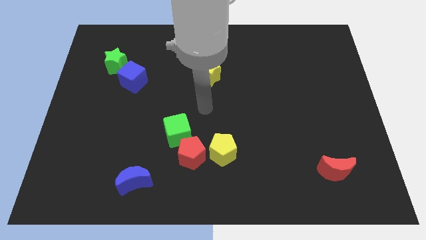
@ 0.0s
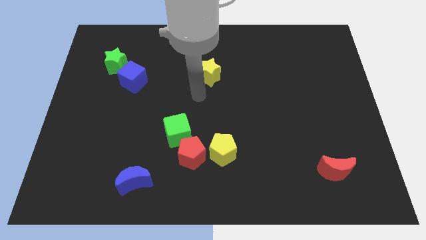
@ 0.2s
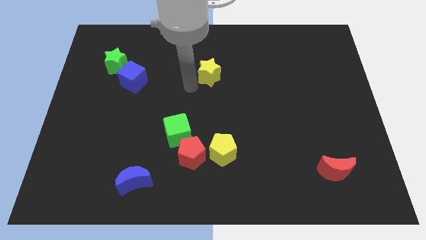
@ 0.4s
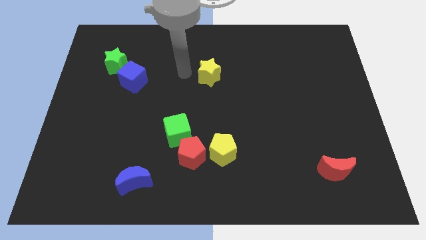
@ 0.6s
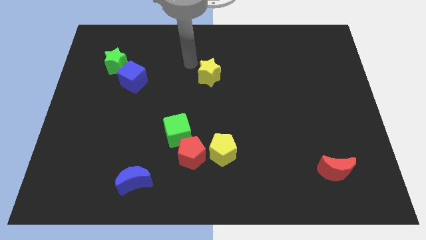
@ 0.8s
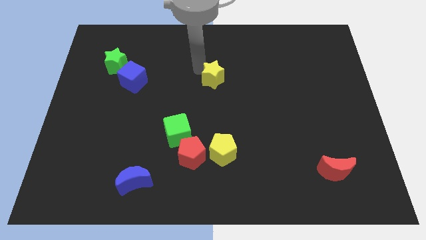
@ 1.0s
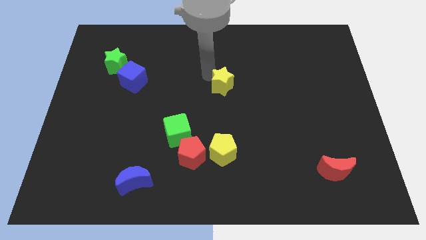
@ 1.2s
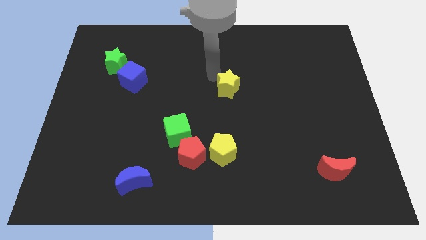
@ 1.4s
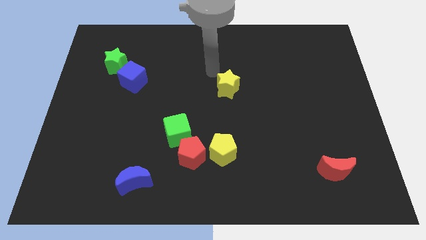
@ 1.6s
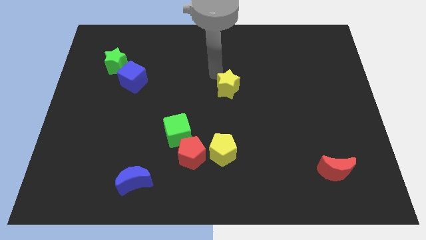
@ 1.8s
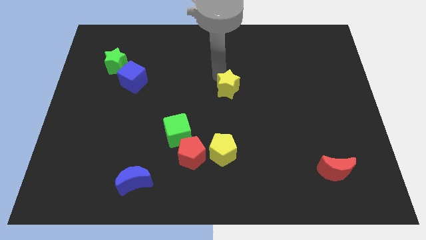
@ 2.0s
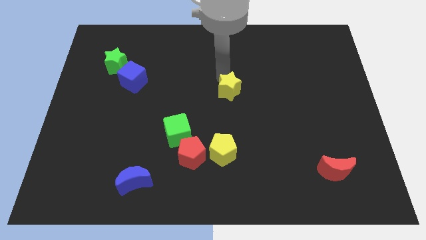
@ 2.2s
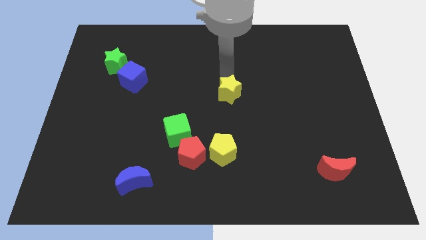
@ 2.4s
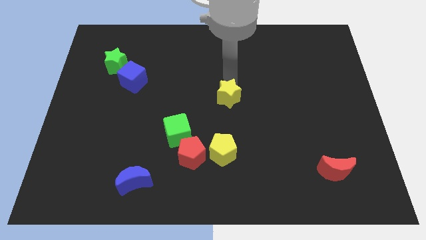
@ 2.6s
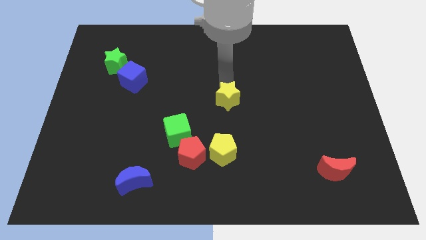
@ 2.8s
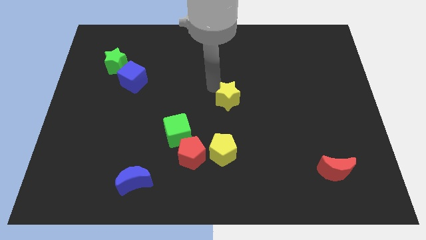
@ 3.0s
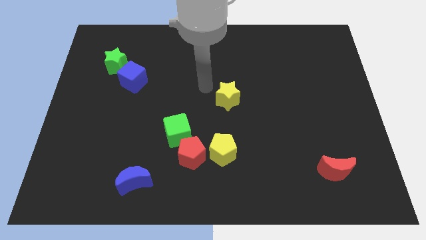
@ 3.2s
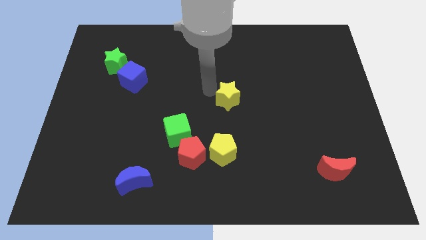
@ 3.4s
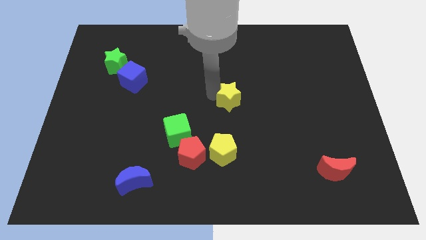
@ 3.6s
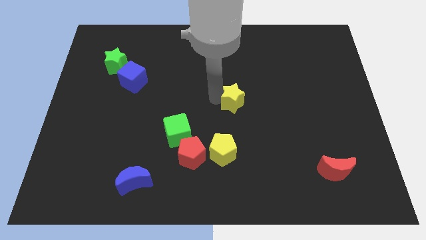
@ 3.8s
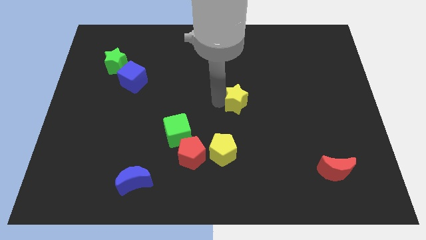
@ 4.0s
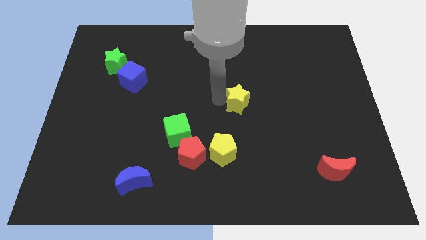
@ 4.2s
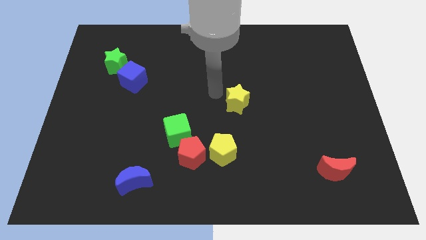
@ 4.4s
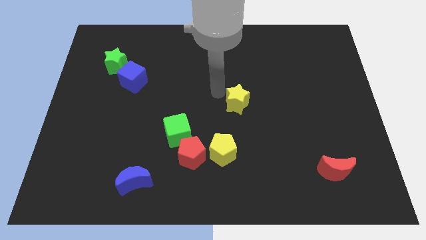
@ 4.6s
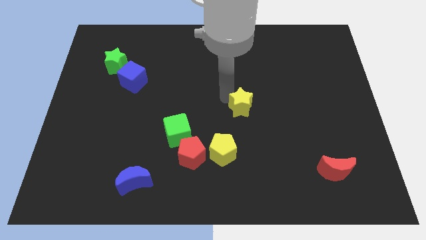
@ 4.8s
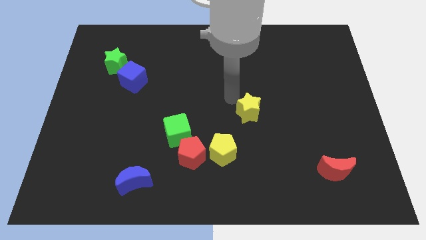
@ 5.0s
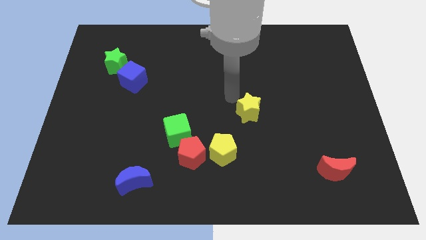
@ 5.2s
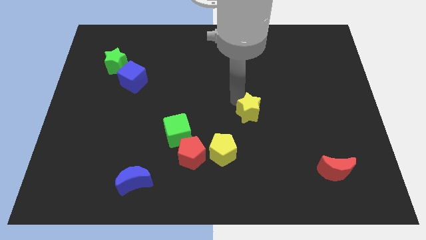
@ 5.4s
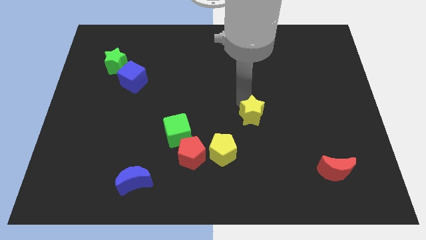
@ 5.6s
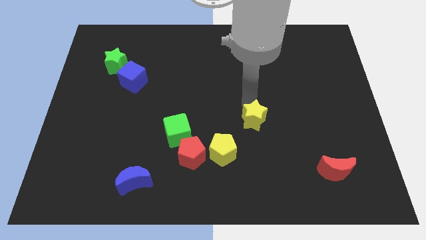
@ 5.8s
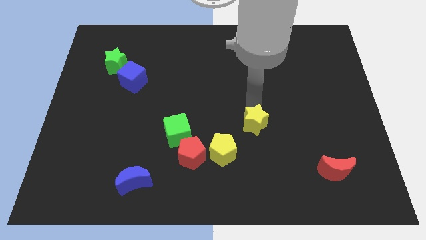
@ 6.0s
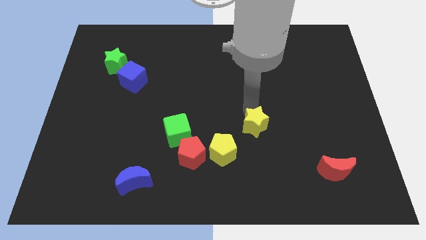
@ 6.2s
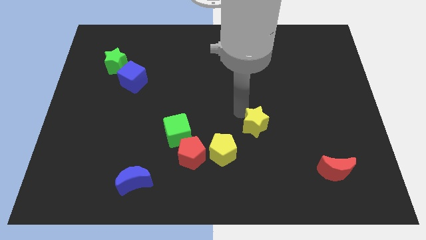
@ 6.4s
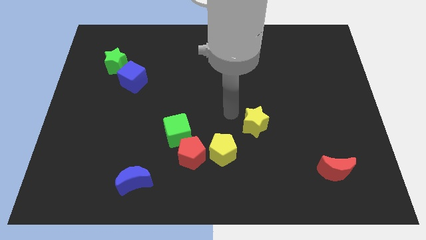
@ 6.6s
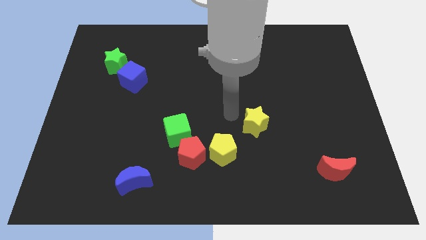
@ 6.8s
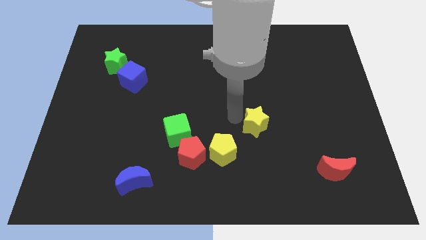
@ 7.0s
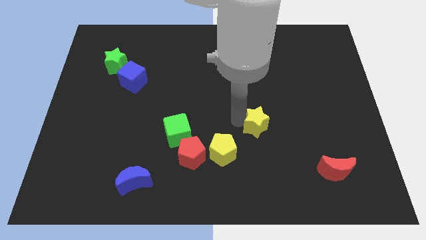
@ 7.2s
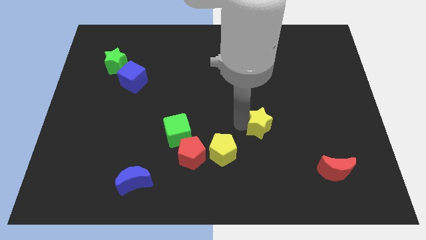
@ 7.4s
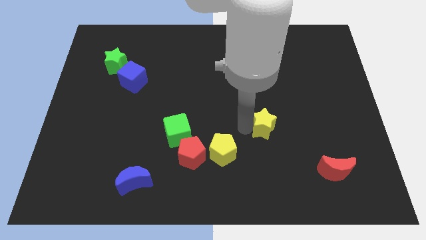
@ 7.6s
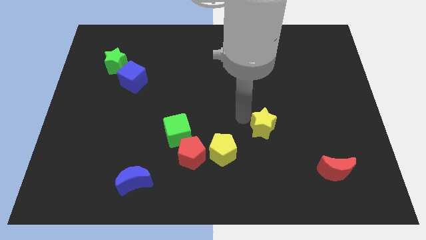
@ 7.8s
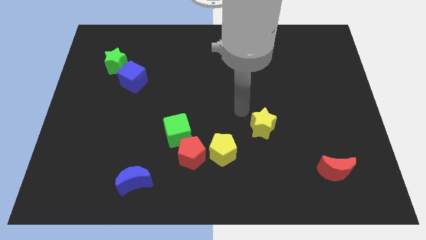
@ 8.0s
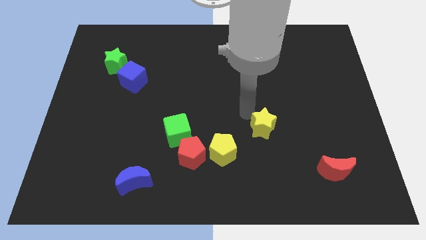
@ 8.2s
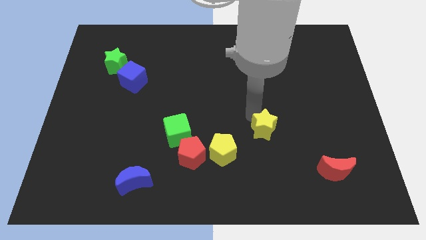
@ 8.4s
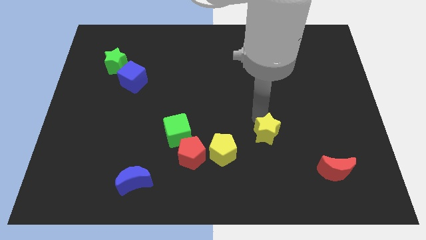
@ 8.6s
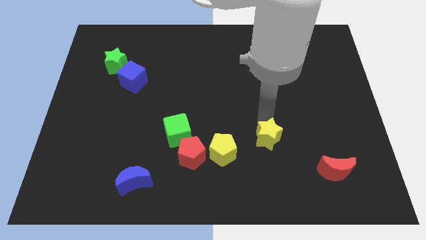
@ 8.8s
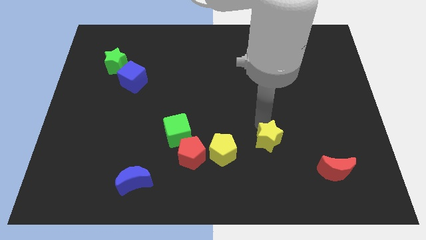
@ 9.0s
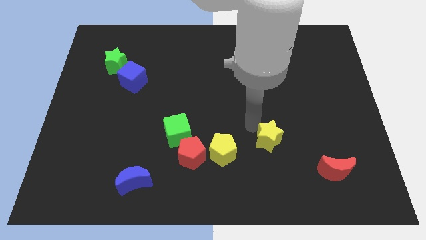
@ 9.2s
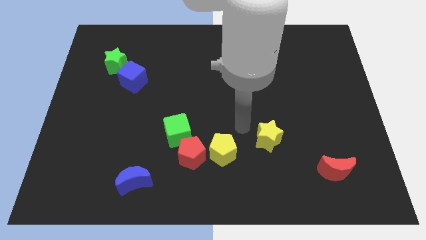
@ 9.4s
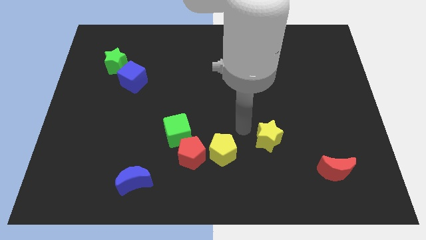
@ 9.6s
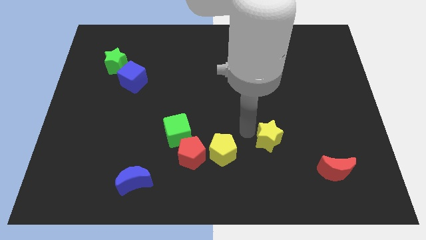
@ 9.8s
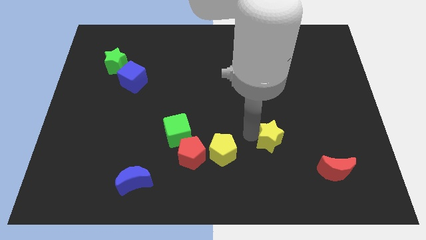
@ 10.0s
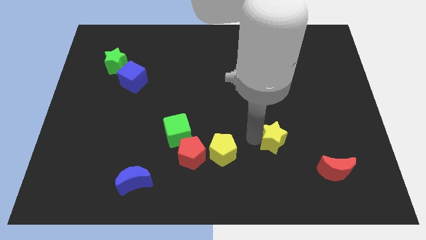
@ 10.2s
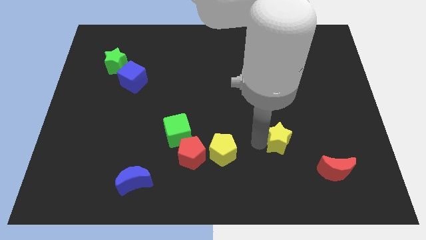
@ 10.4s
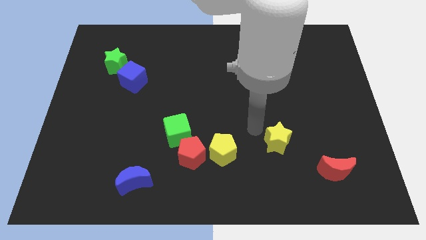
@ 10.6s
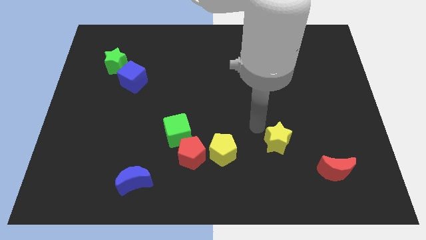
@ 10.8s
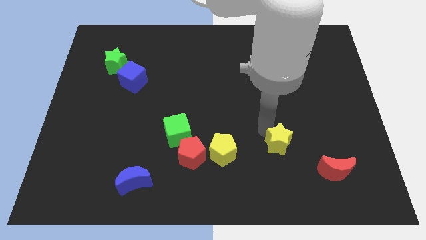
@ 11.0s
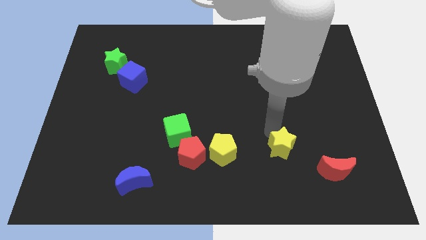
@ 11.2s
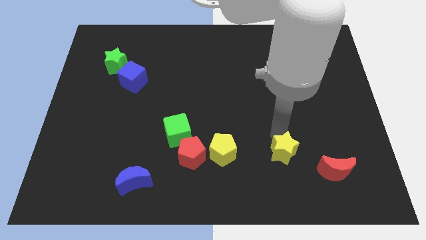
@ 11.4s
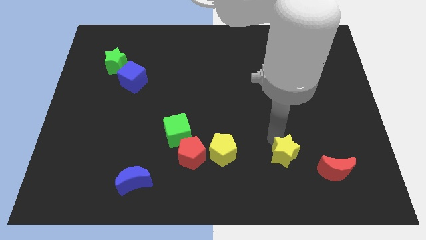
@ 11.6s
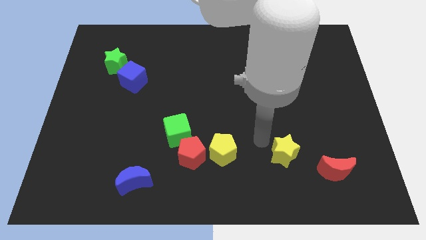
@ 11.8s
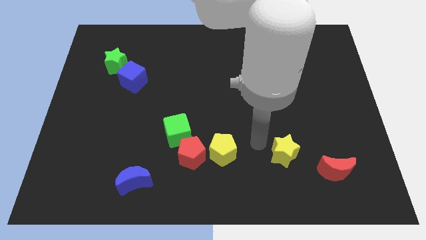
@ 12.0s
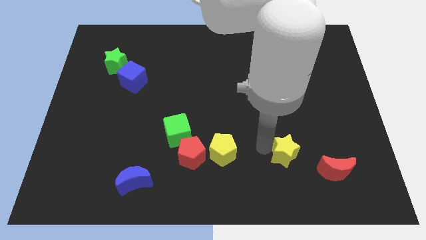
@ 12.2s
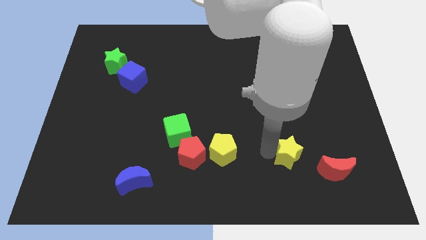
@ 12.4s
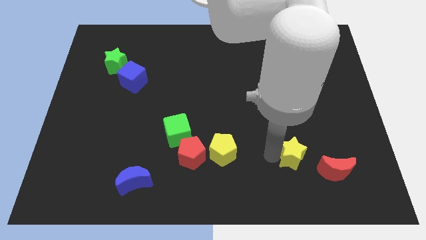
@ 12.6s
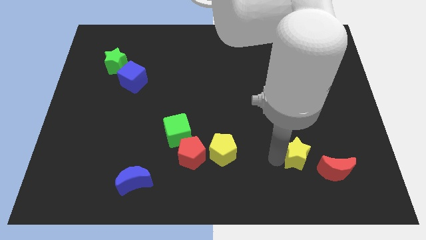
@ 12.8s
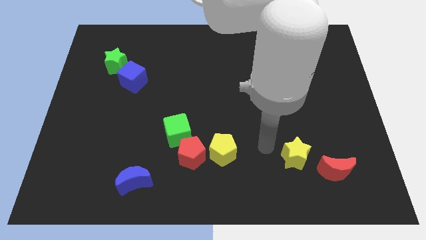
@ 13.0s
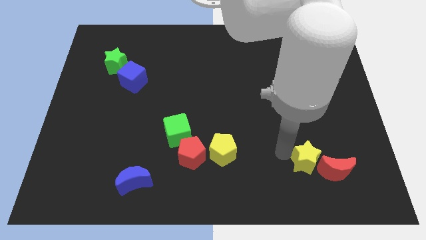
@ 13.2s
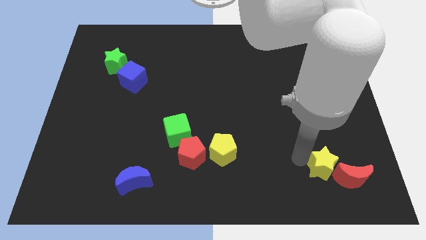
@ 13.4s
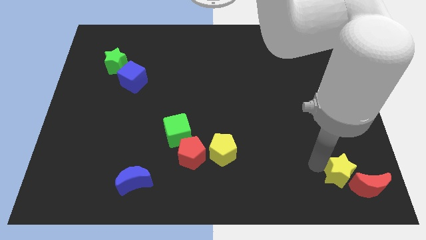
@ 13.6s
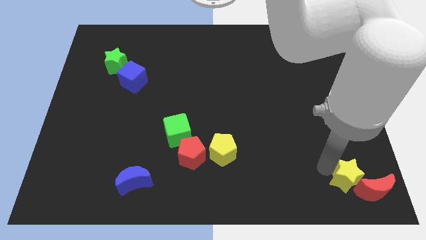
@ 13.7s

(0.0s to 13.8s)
move the yellow star next to the red moon

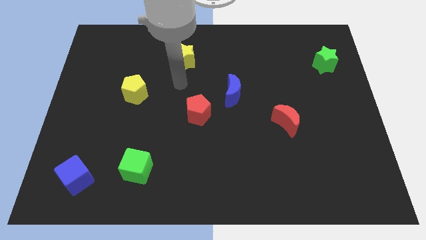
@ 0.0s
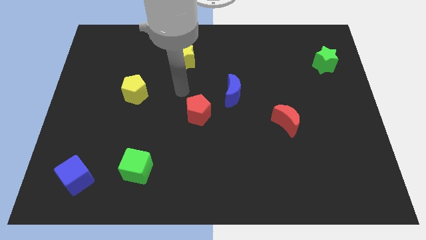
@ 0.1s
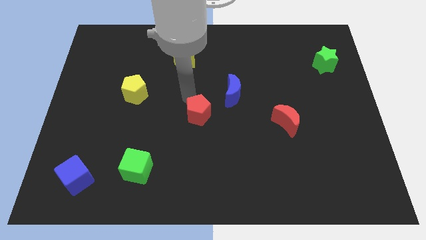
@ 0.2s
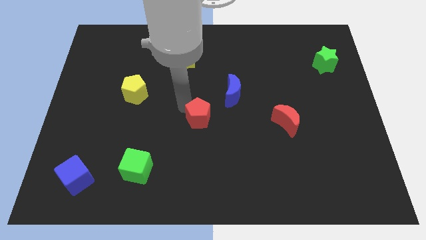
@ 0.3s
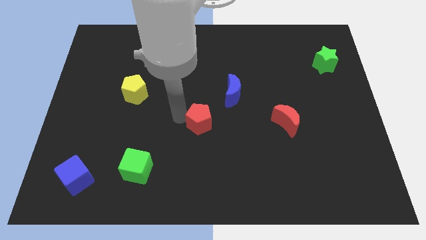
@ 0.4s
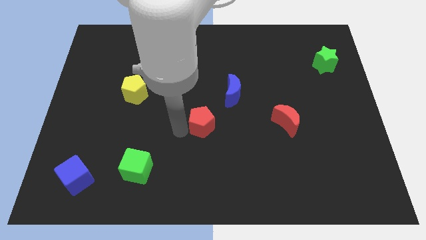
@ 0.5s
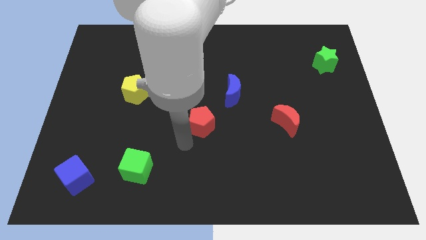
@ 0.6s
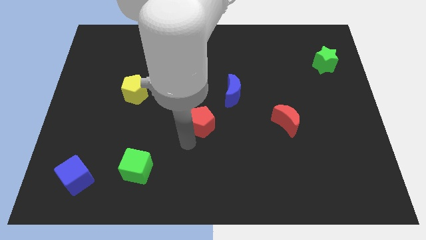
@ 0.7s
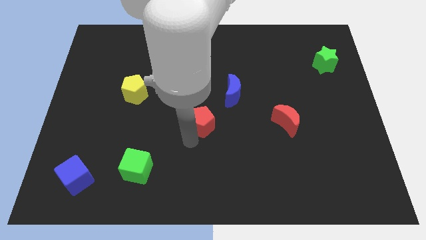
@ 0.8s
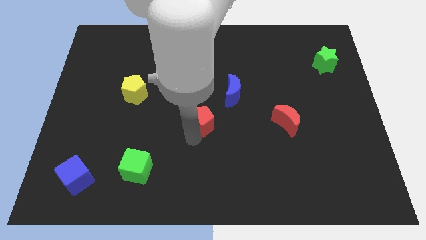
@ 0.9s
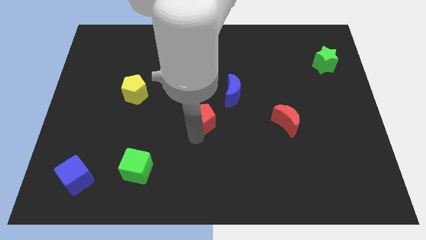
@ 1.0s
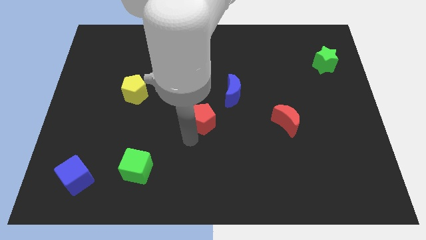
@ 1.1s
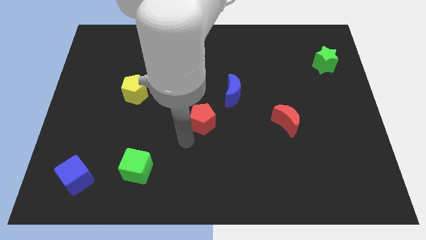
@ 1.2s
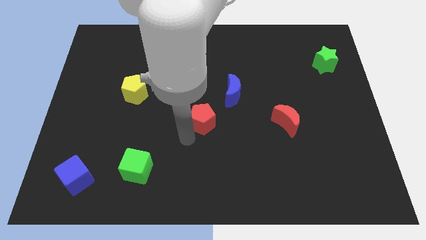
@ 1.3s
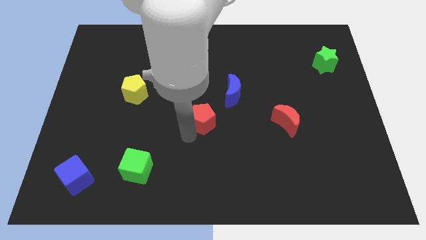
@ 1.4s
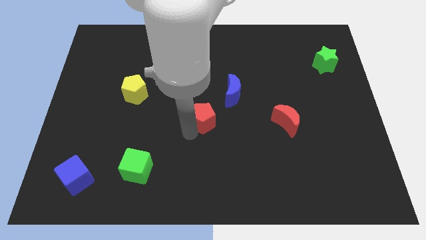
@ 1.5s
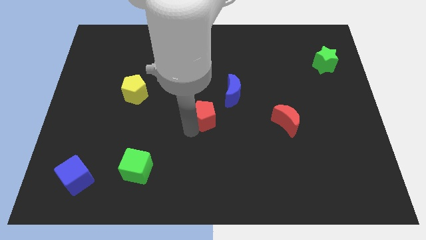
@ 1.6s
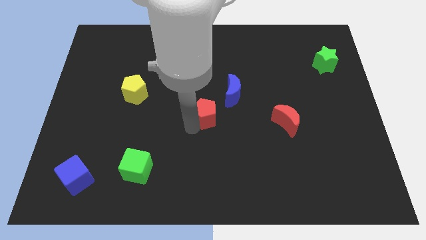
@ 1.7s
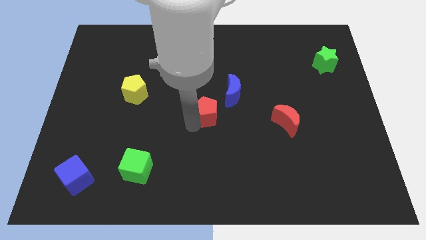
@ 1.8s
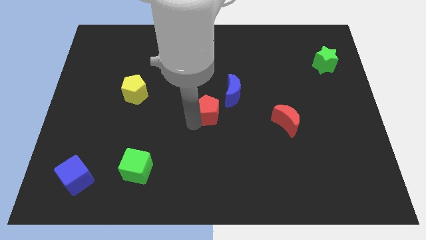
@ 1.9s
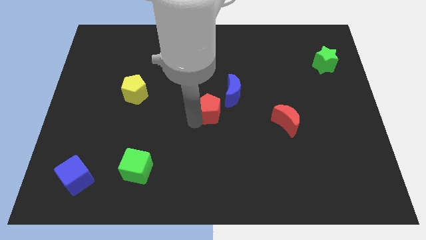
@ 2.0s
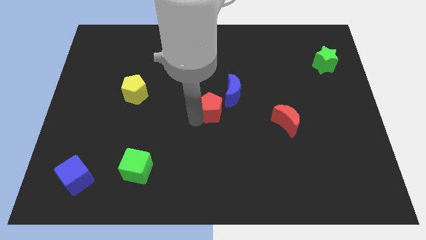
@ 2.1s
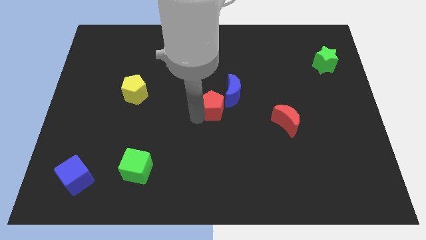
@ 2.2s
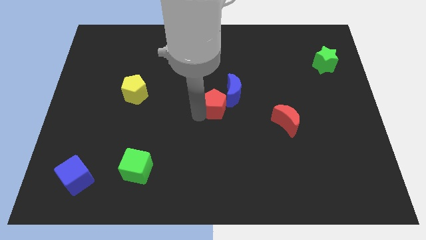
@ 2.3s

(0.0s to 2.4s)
push the red pentagon towards the blue moon
